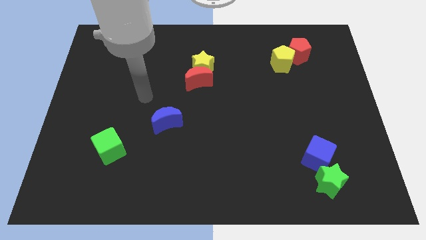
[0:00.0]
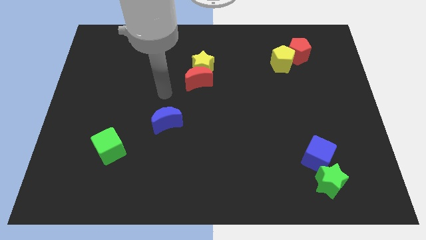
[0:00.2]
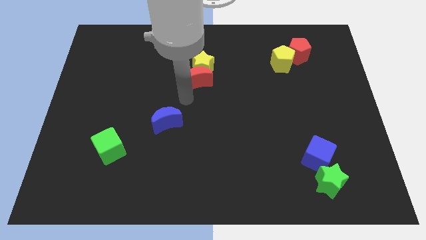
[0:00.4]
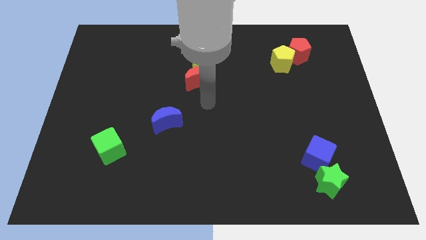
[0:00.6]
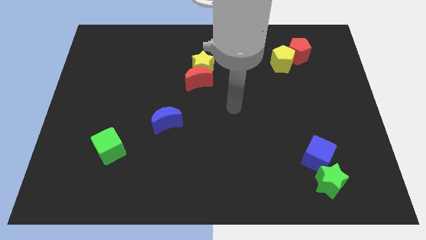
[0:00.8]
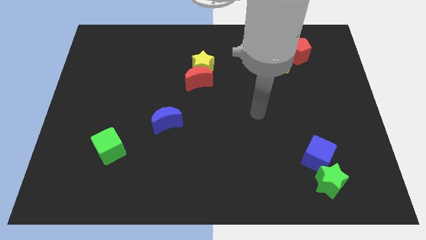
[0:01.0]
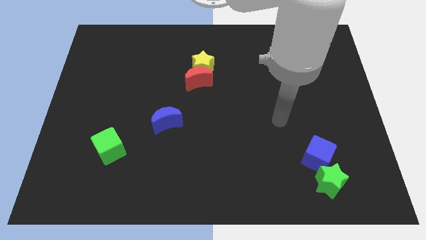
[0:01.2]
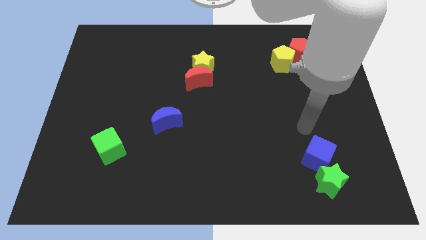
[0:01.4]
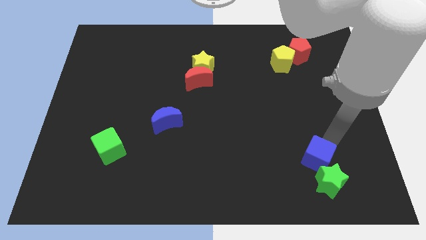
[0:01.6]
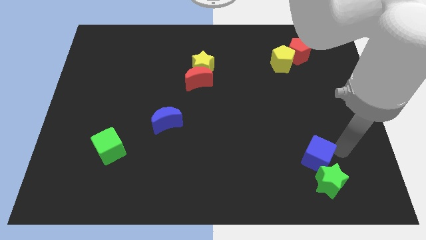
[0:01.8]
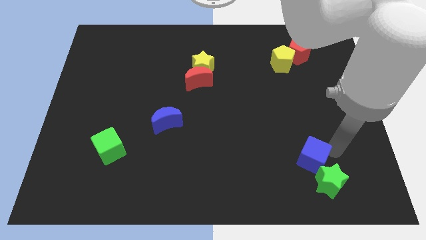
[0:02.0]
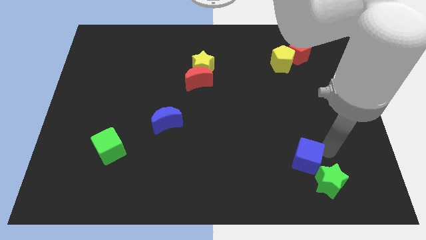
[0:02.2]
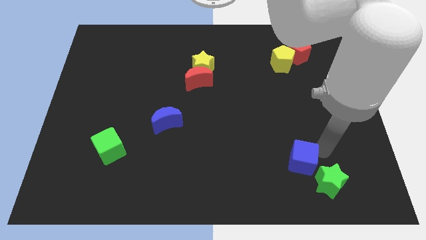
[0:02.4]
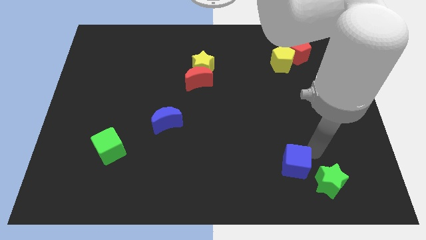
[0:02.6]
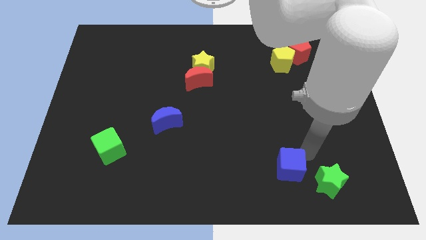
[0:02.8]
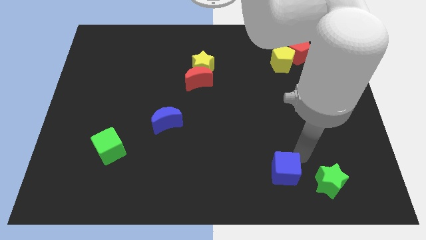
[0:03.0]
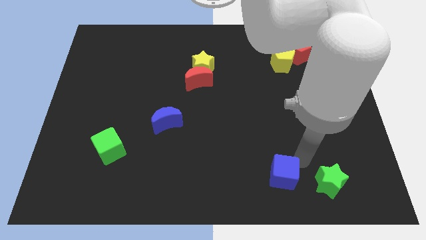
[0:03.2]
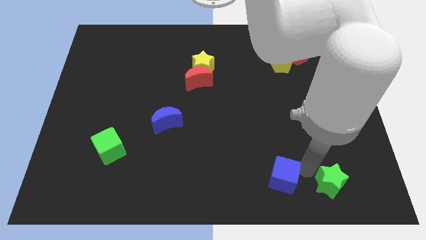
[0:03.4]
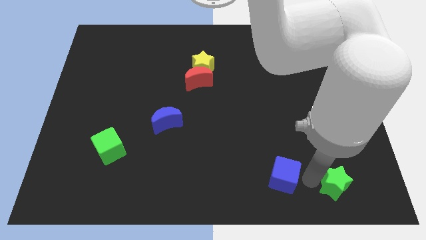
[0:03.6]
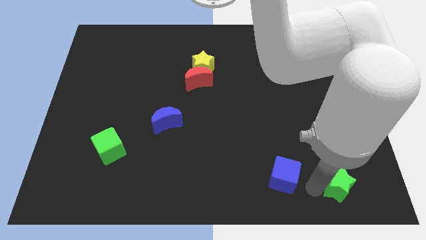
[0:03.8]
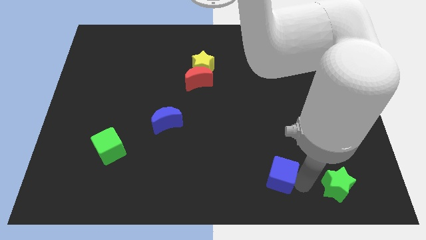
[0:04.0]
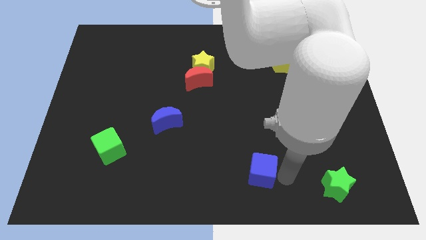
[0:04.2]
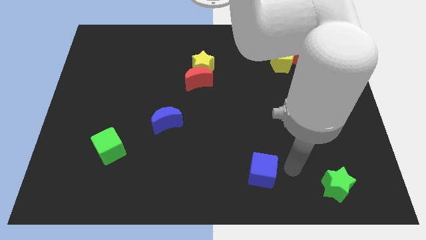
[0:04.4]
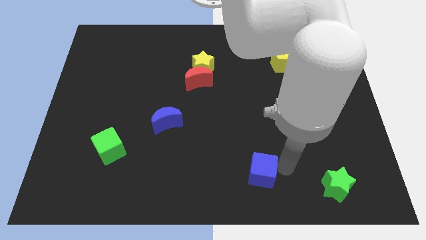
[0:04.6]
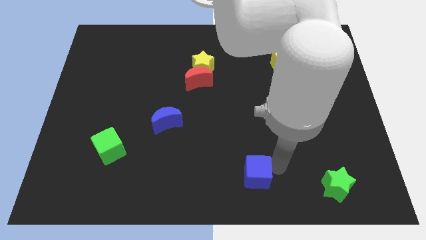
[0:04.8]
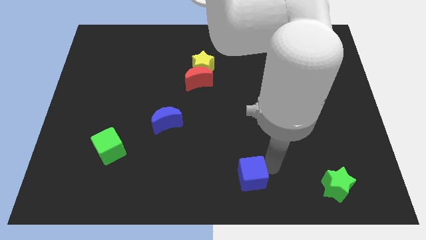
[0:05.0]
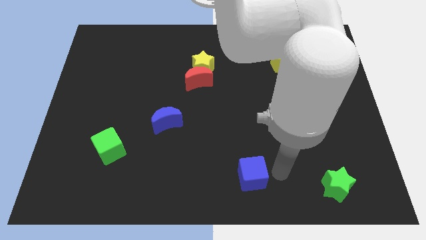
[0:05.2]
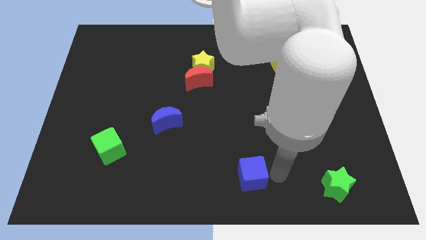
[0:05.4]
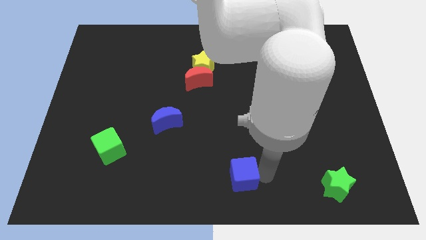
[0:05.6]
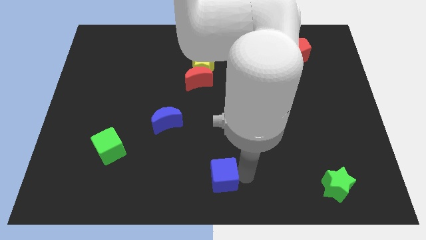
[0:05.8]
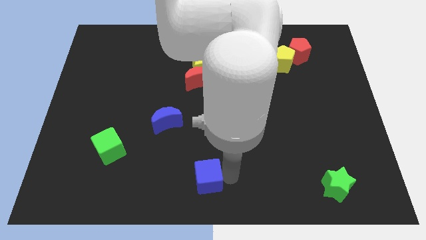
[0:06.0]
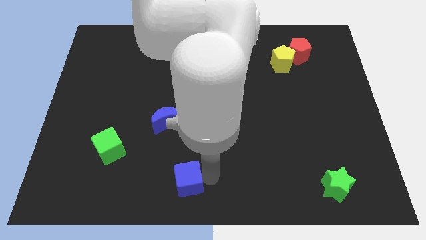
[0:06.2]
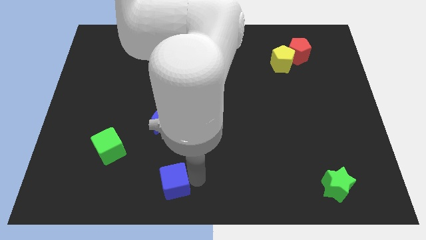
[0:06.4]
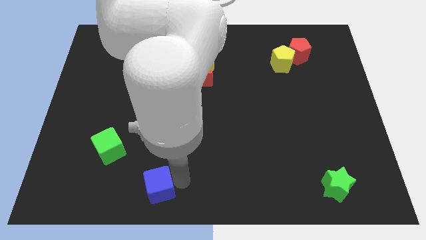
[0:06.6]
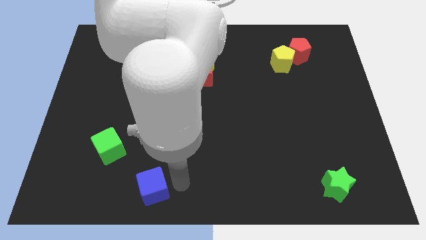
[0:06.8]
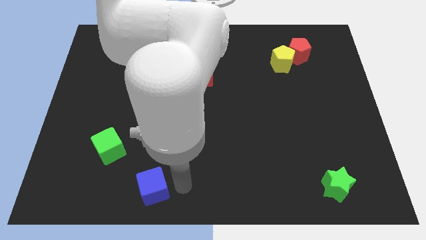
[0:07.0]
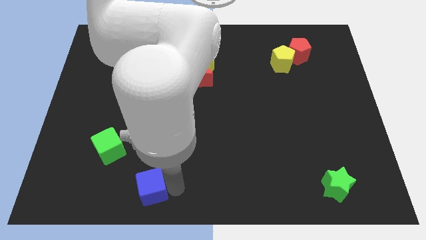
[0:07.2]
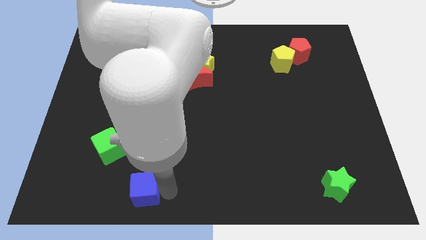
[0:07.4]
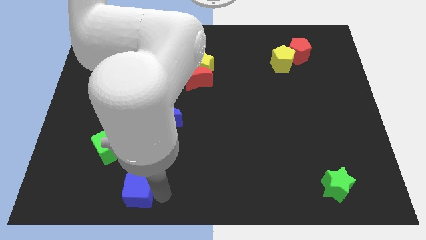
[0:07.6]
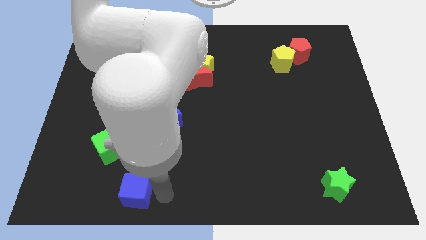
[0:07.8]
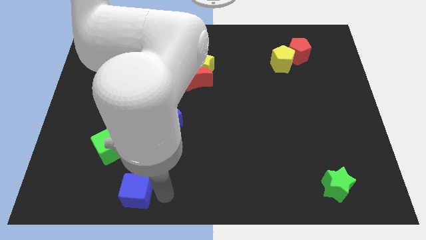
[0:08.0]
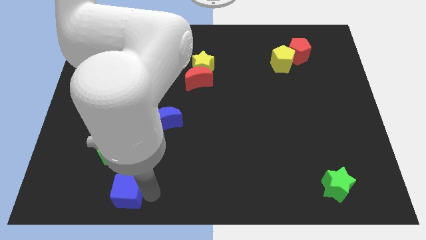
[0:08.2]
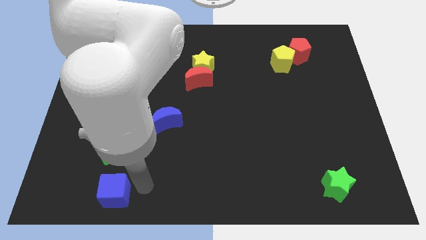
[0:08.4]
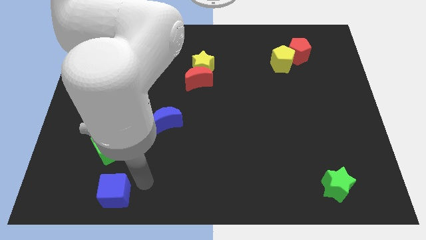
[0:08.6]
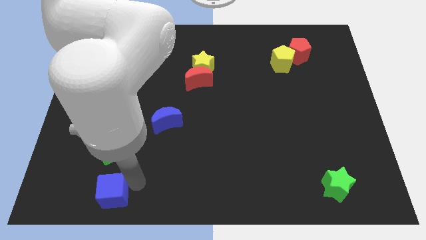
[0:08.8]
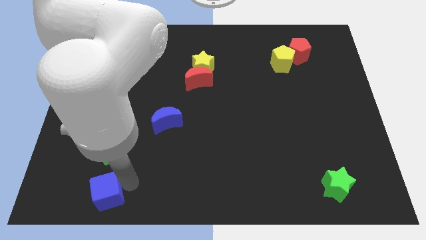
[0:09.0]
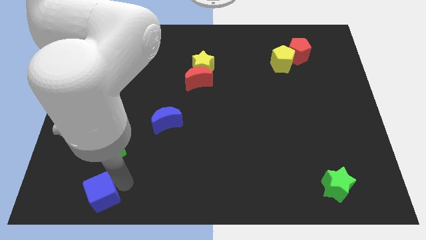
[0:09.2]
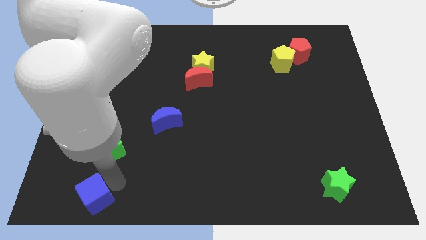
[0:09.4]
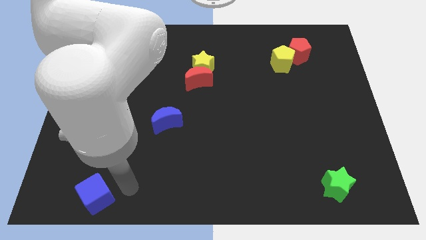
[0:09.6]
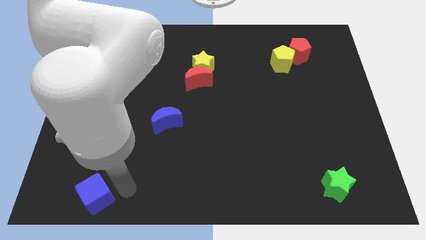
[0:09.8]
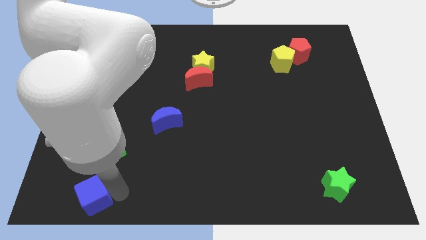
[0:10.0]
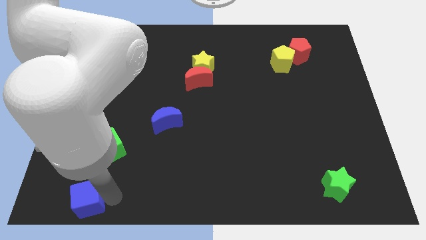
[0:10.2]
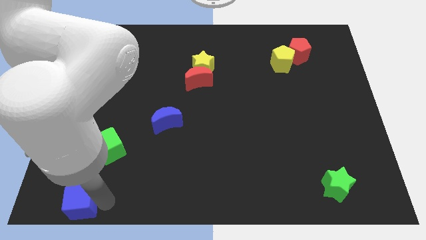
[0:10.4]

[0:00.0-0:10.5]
put the blue cube to the bottom left corner

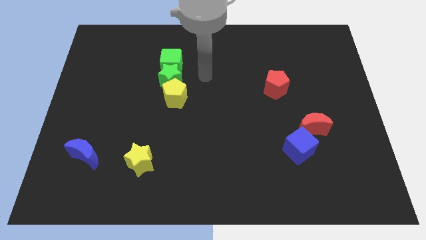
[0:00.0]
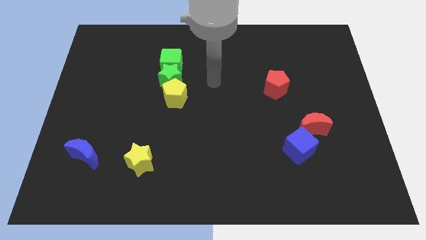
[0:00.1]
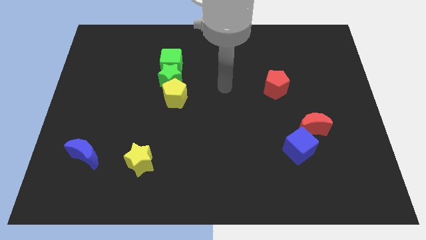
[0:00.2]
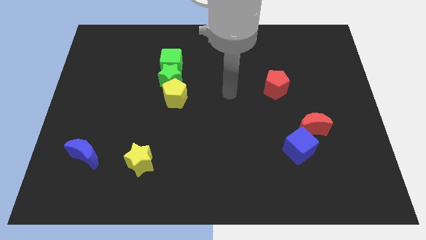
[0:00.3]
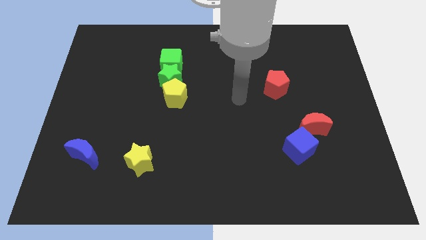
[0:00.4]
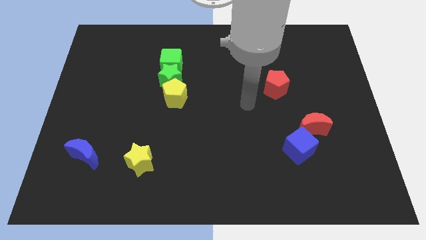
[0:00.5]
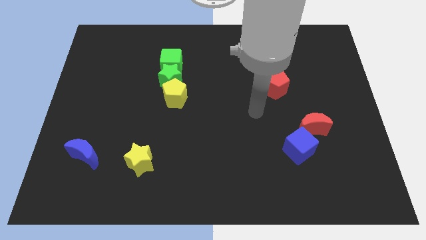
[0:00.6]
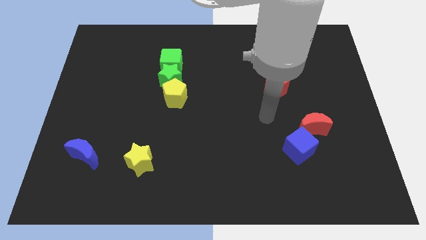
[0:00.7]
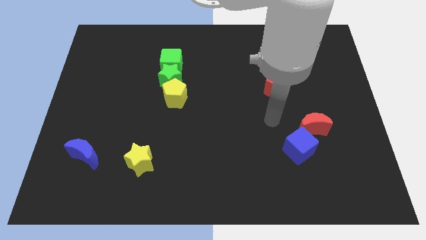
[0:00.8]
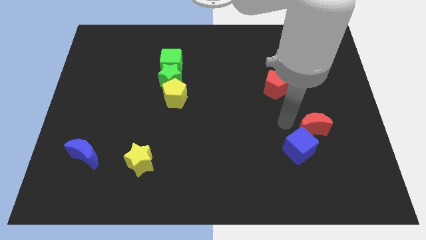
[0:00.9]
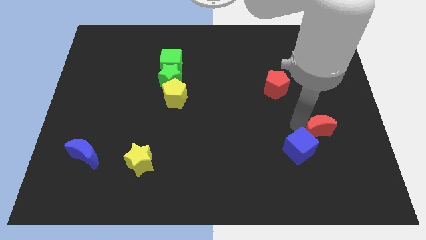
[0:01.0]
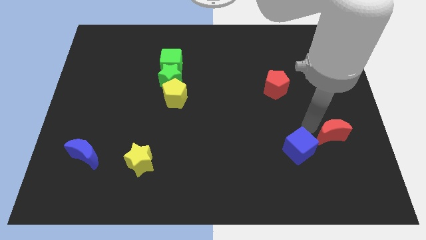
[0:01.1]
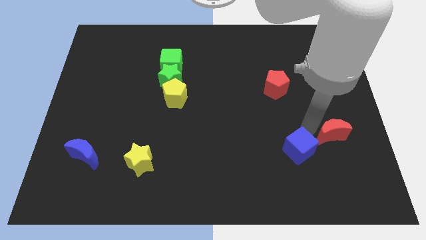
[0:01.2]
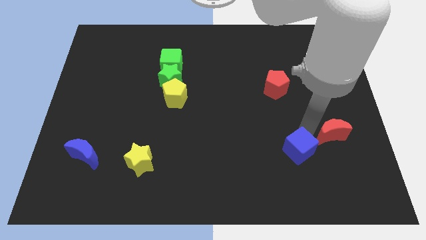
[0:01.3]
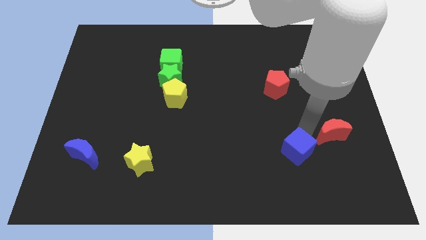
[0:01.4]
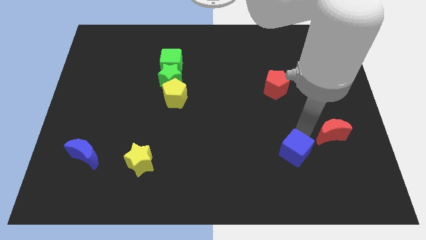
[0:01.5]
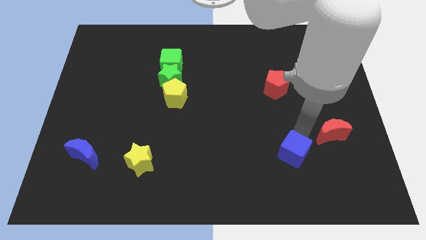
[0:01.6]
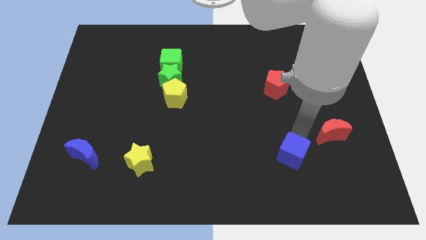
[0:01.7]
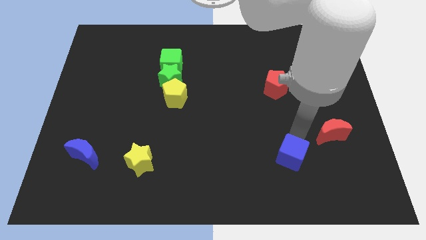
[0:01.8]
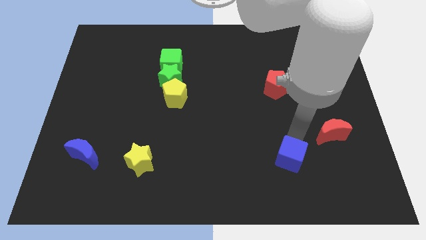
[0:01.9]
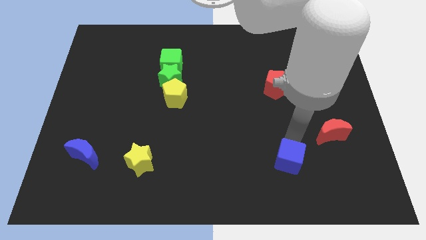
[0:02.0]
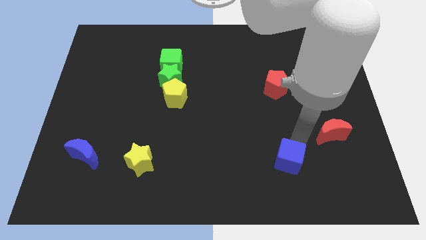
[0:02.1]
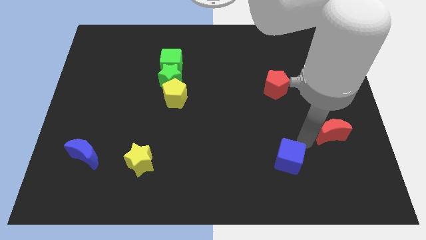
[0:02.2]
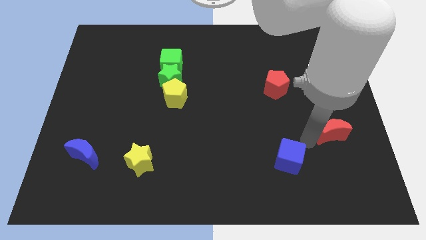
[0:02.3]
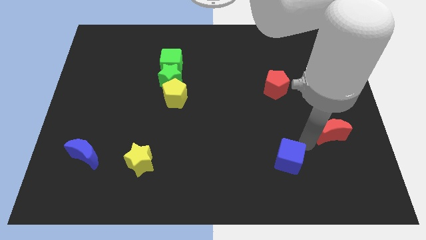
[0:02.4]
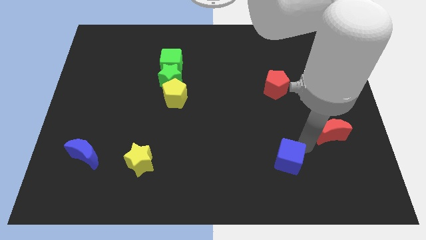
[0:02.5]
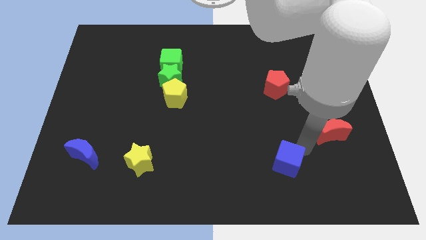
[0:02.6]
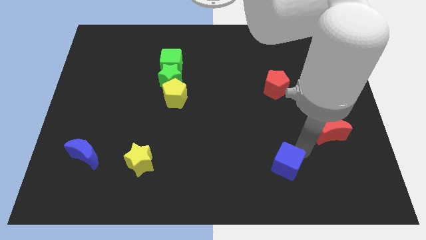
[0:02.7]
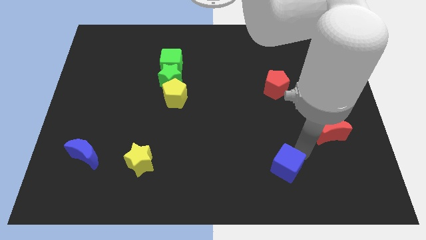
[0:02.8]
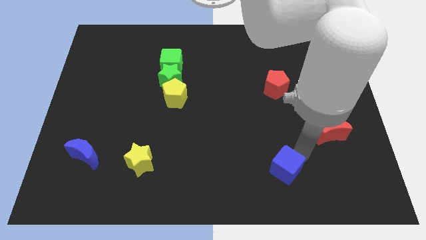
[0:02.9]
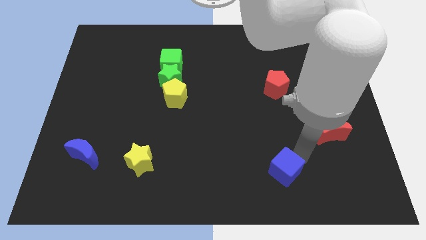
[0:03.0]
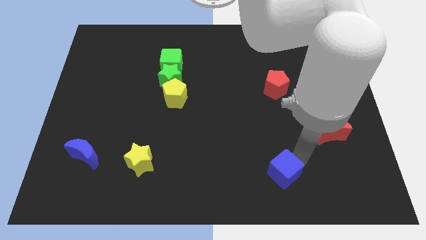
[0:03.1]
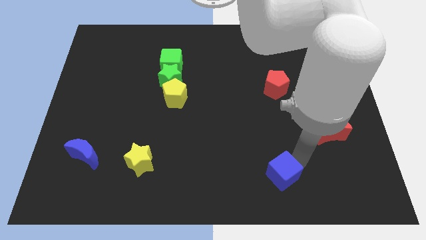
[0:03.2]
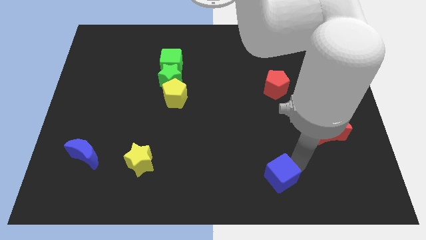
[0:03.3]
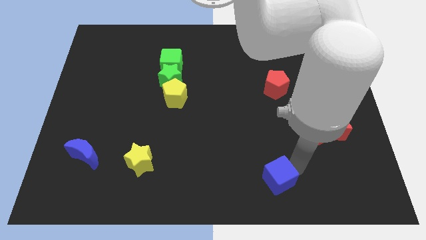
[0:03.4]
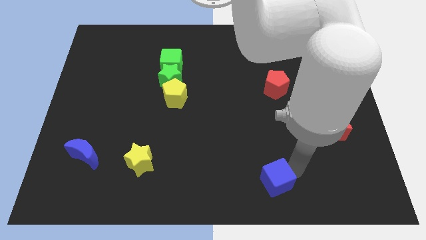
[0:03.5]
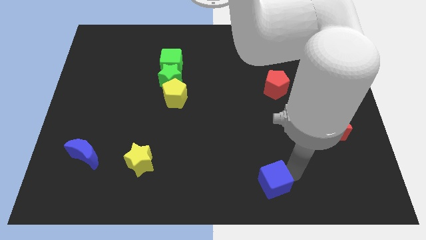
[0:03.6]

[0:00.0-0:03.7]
push the blue cube to the bottom
